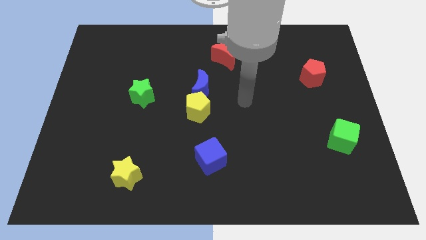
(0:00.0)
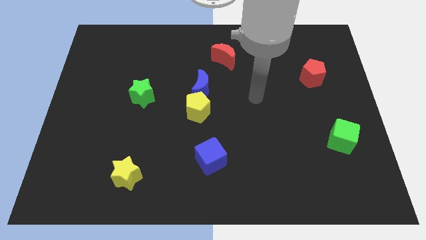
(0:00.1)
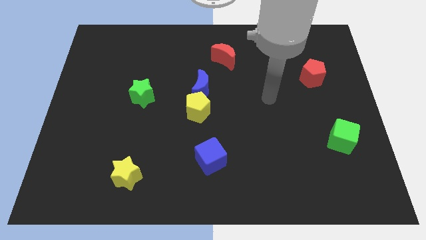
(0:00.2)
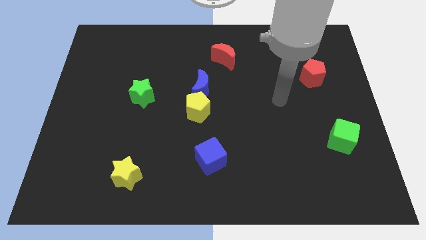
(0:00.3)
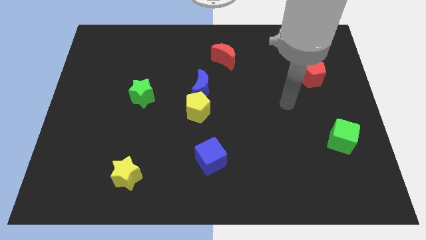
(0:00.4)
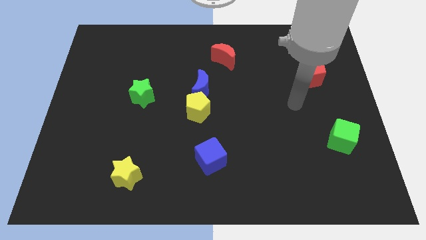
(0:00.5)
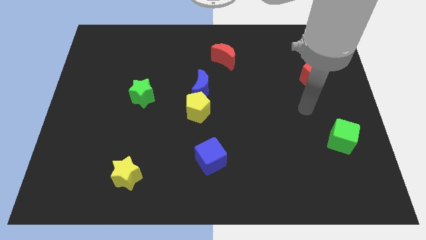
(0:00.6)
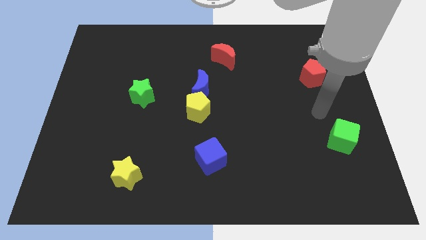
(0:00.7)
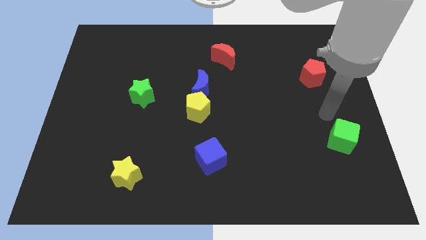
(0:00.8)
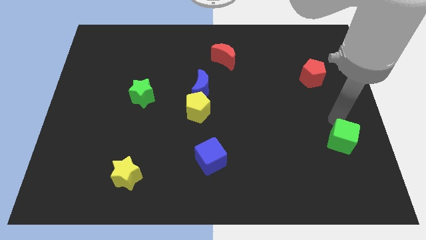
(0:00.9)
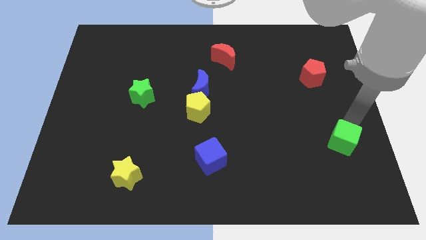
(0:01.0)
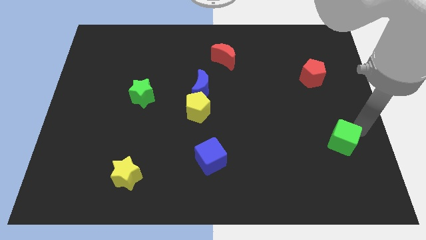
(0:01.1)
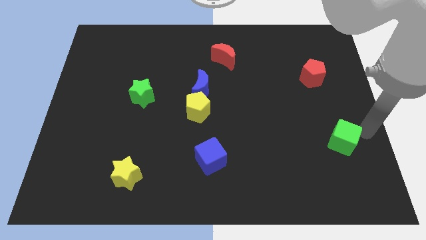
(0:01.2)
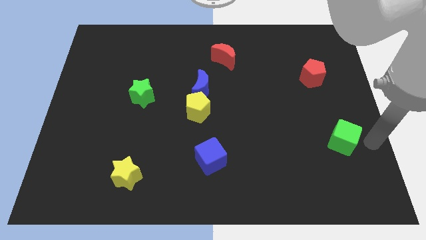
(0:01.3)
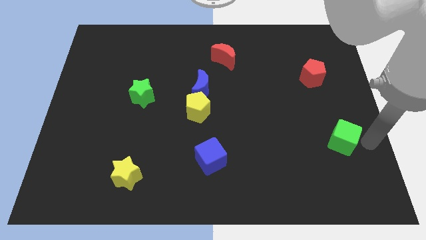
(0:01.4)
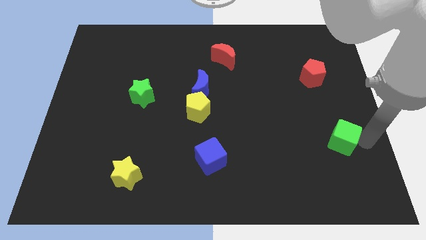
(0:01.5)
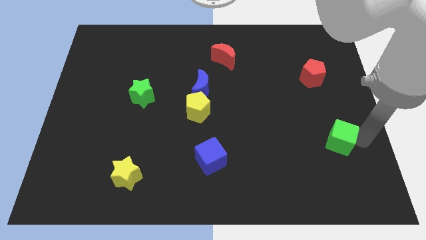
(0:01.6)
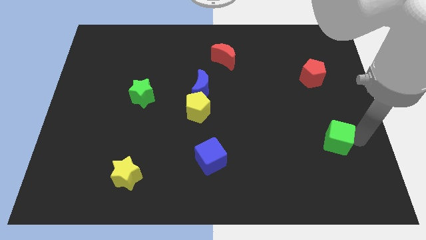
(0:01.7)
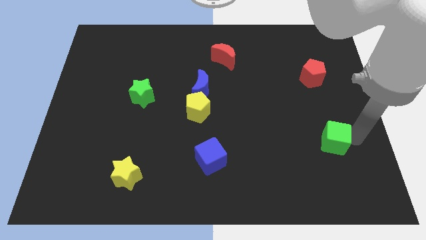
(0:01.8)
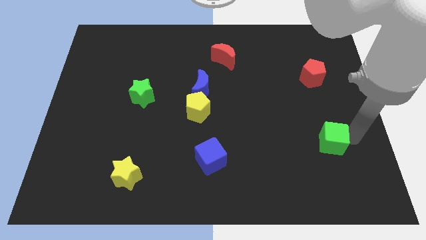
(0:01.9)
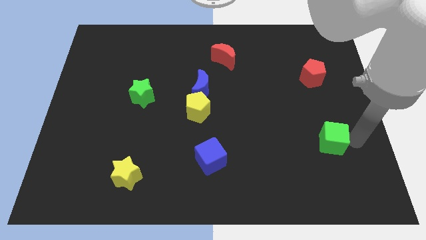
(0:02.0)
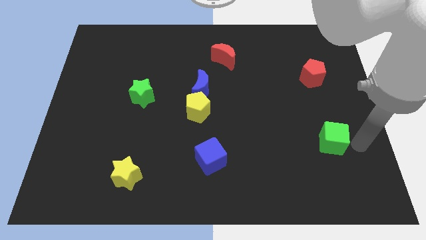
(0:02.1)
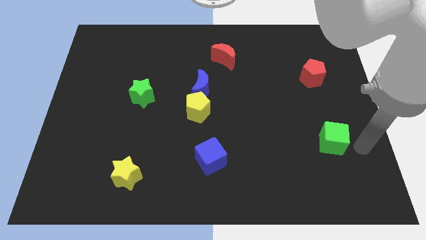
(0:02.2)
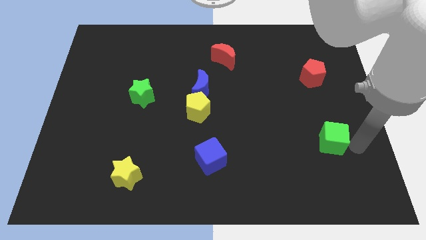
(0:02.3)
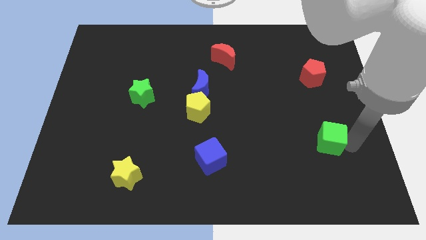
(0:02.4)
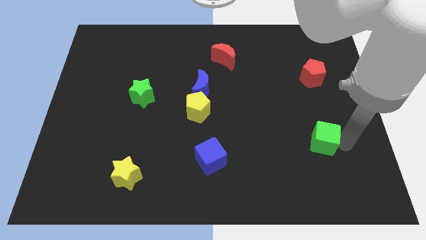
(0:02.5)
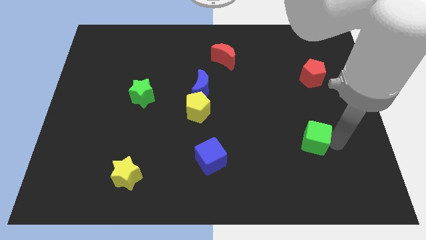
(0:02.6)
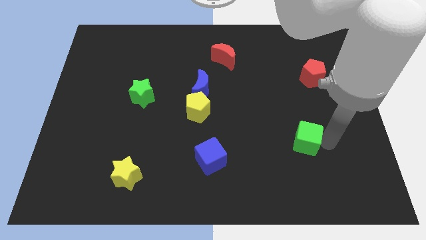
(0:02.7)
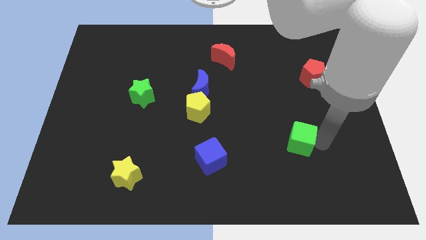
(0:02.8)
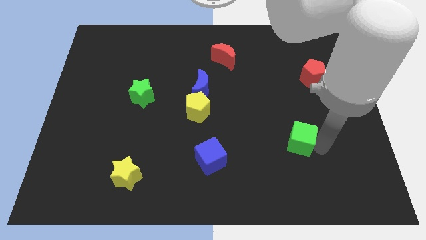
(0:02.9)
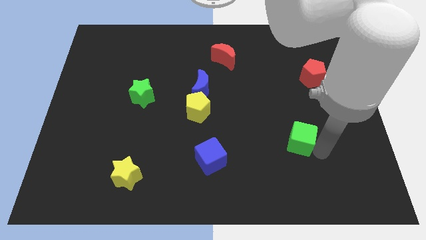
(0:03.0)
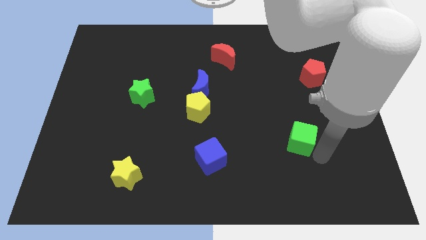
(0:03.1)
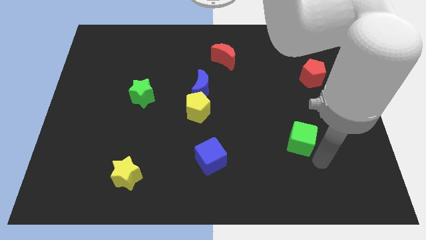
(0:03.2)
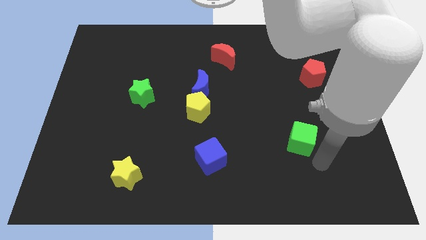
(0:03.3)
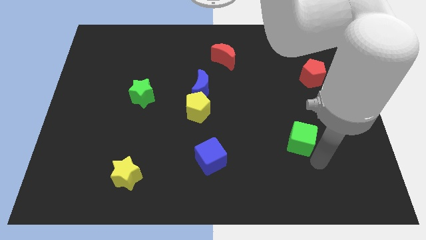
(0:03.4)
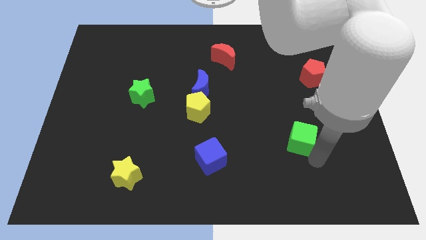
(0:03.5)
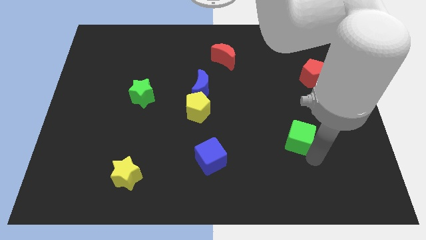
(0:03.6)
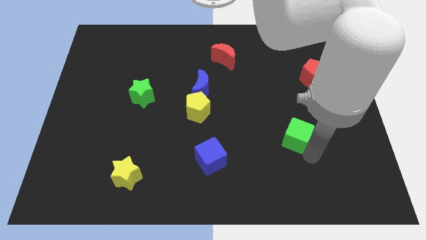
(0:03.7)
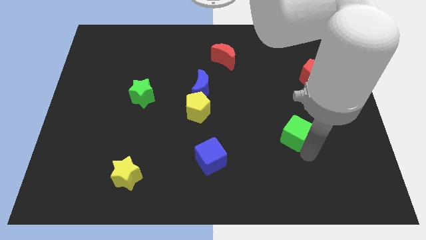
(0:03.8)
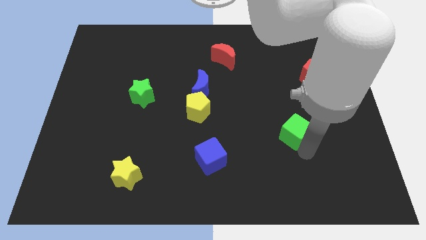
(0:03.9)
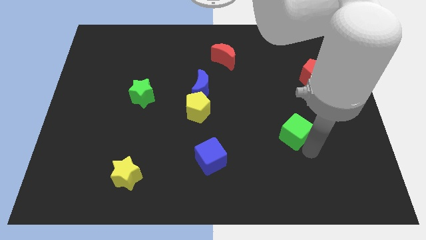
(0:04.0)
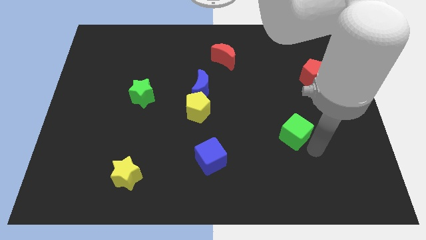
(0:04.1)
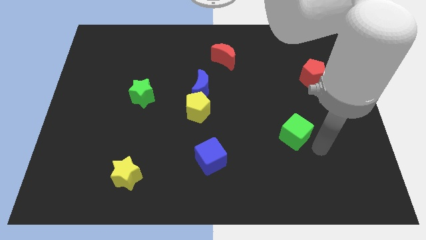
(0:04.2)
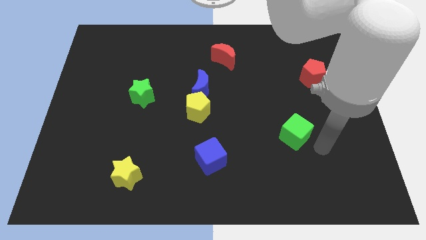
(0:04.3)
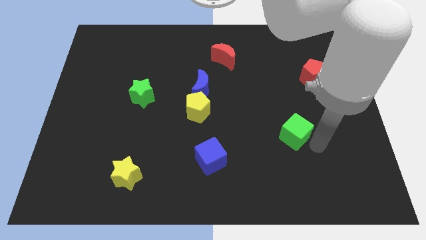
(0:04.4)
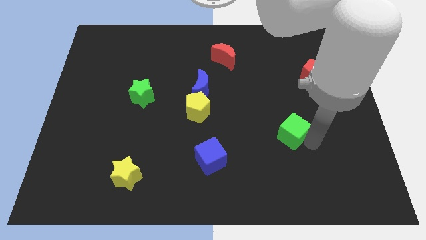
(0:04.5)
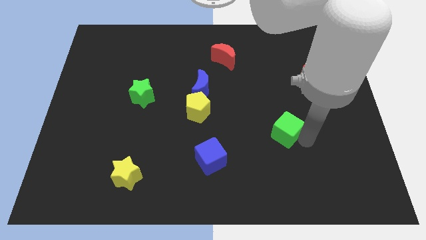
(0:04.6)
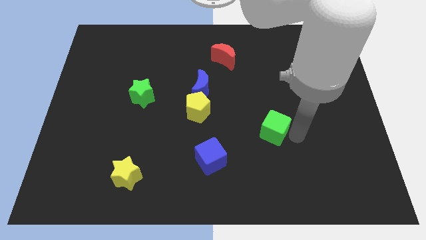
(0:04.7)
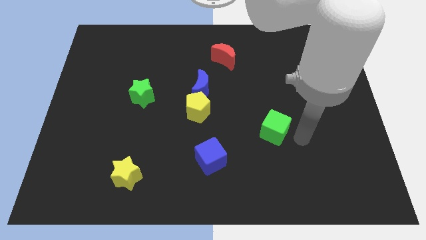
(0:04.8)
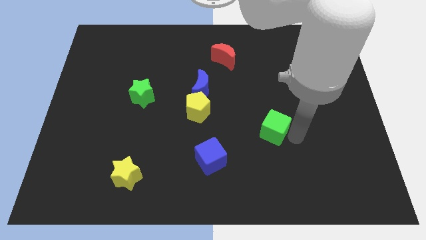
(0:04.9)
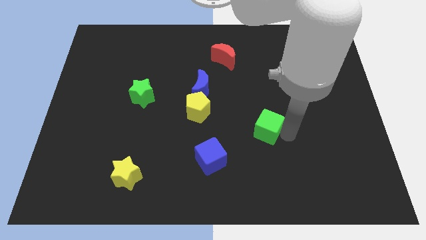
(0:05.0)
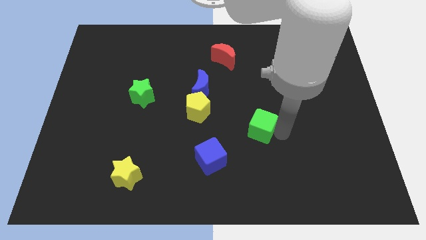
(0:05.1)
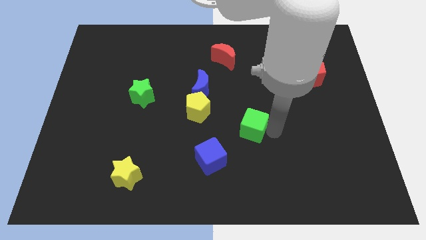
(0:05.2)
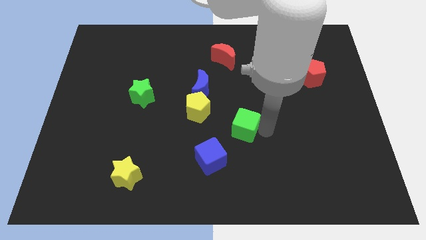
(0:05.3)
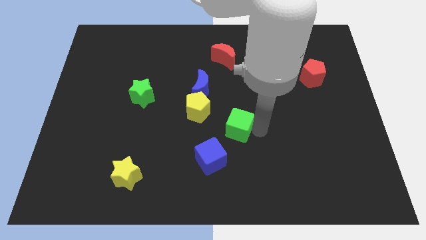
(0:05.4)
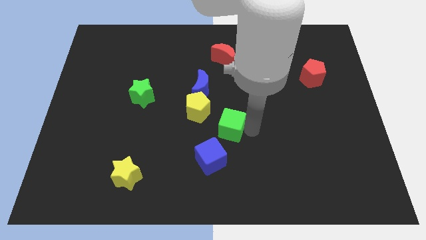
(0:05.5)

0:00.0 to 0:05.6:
push the green cube to the top of the blue cube
